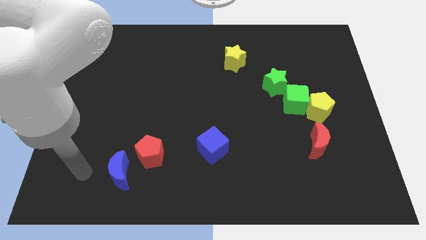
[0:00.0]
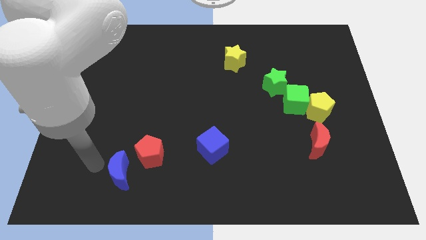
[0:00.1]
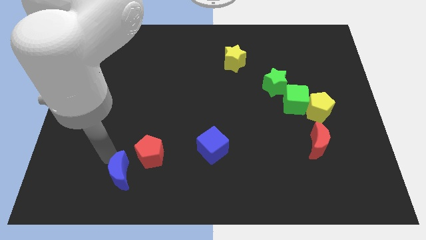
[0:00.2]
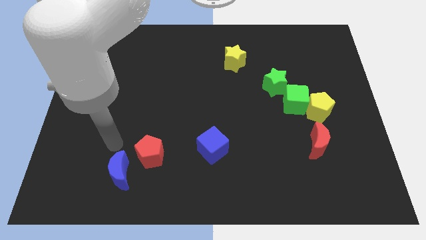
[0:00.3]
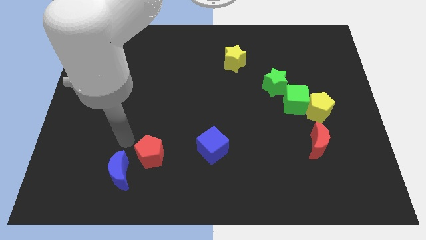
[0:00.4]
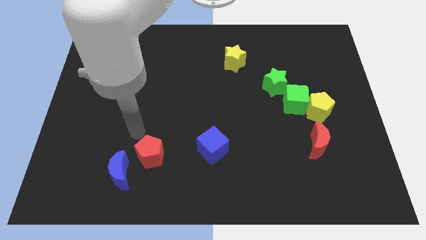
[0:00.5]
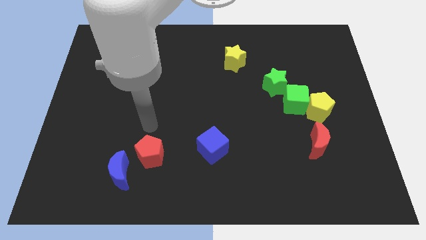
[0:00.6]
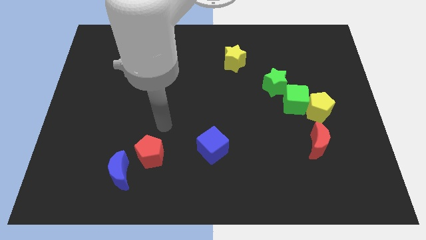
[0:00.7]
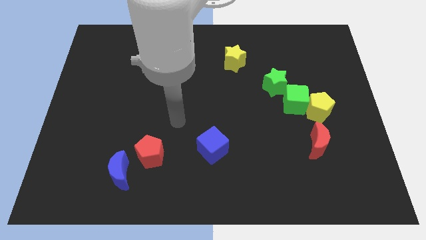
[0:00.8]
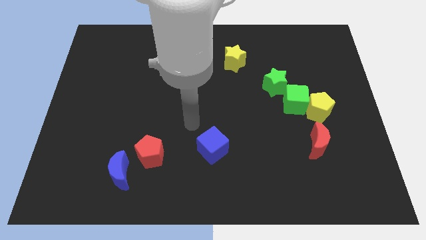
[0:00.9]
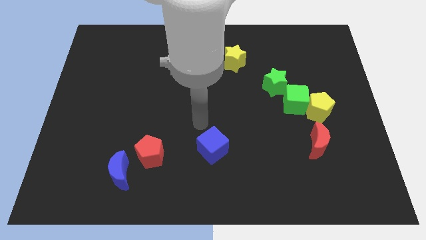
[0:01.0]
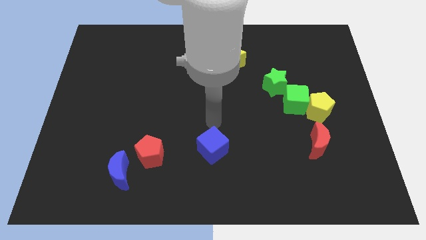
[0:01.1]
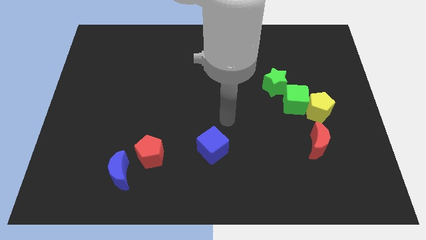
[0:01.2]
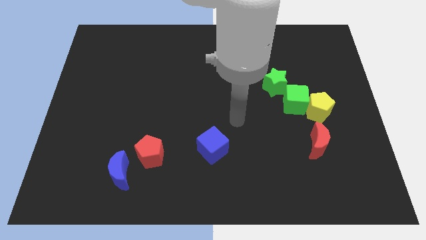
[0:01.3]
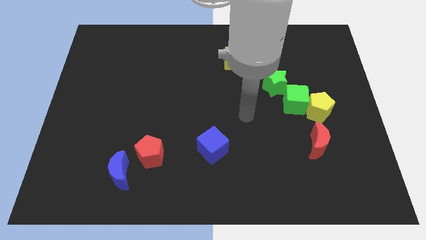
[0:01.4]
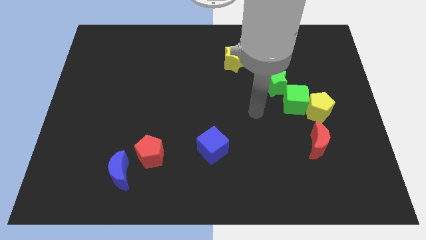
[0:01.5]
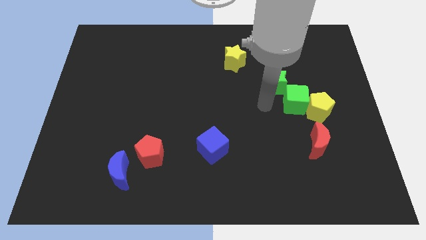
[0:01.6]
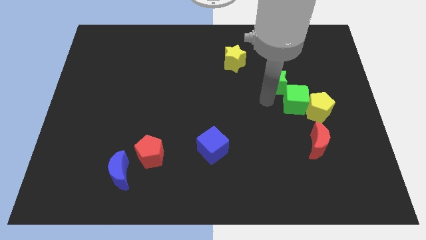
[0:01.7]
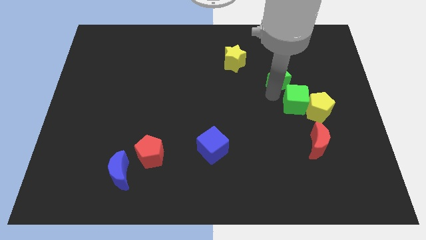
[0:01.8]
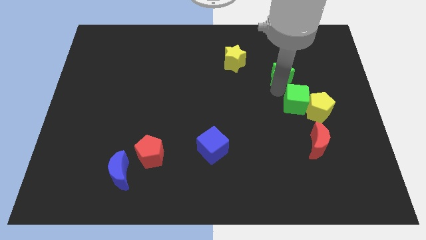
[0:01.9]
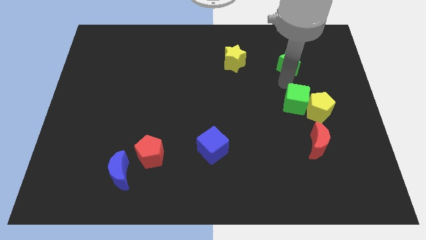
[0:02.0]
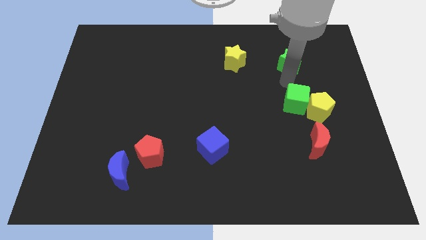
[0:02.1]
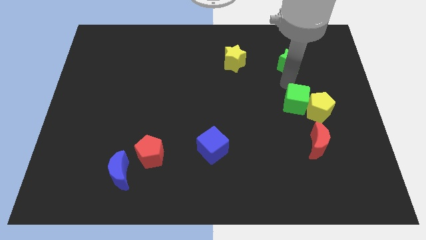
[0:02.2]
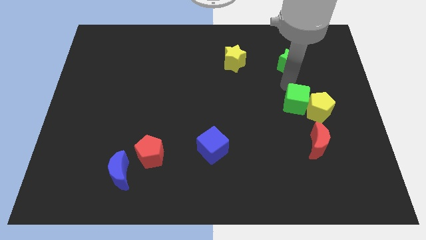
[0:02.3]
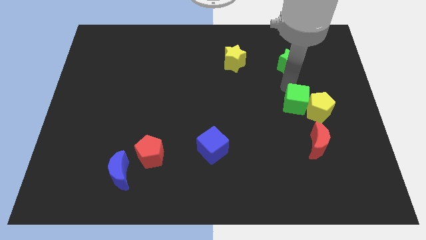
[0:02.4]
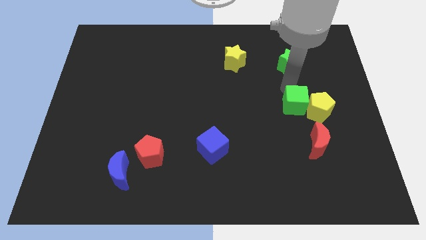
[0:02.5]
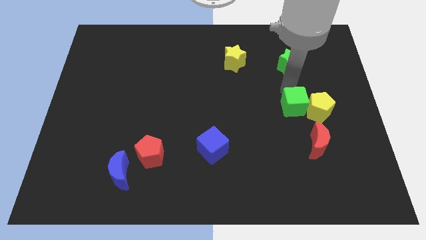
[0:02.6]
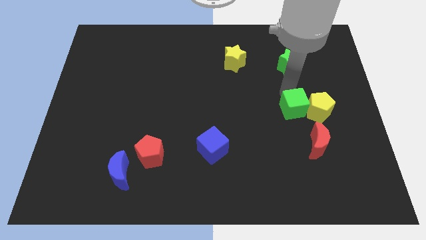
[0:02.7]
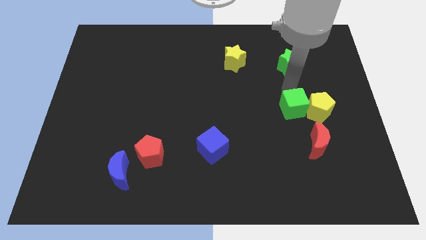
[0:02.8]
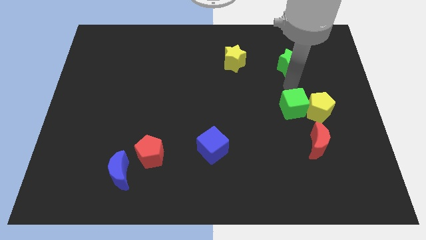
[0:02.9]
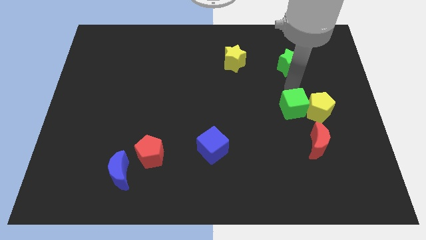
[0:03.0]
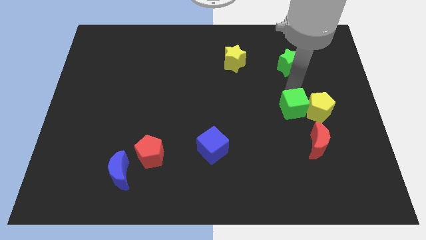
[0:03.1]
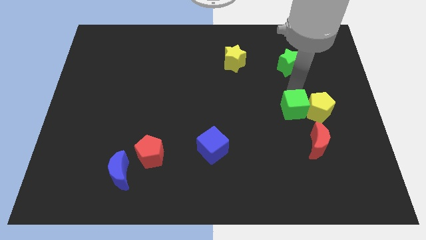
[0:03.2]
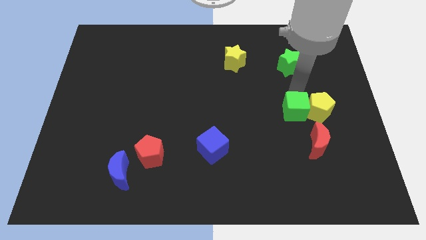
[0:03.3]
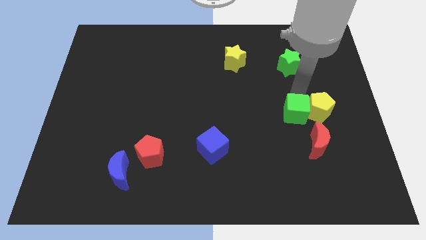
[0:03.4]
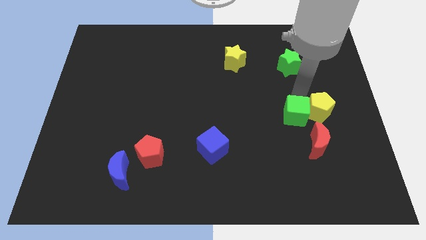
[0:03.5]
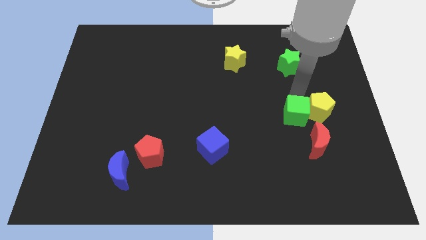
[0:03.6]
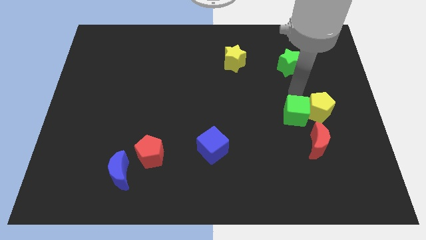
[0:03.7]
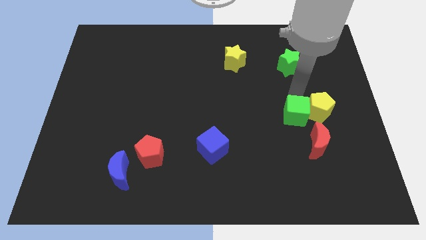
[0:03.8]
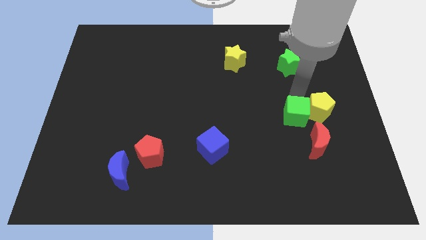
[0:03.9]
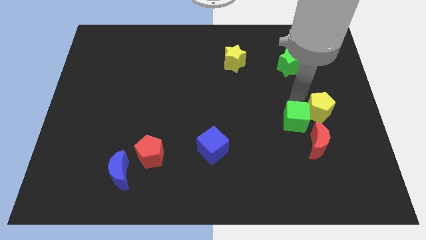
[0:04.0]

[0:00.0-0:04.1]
separate the green cube from the yellow pentagon and green star

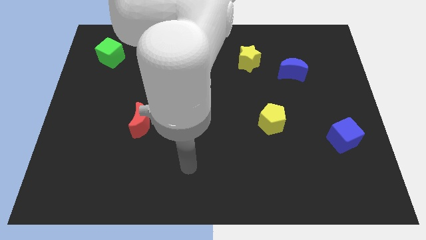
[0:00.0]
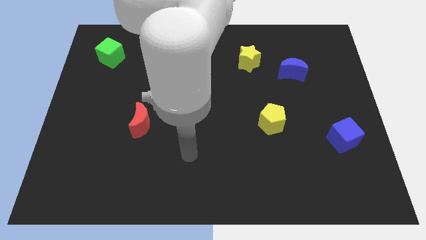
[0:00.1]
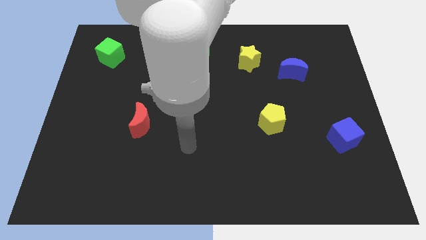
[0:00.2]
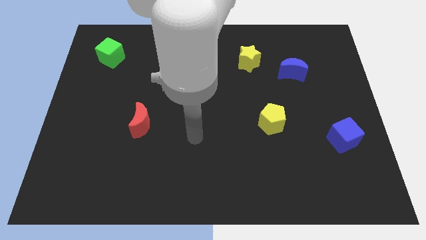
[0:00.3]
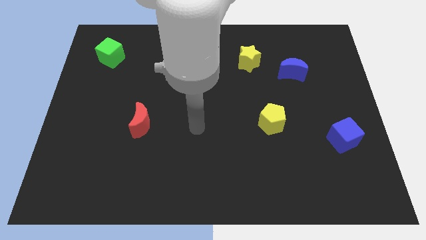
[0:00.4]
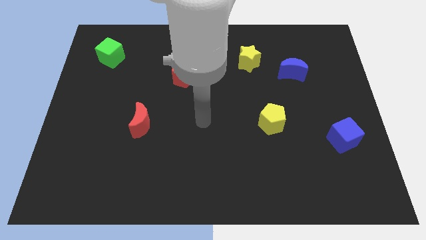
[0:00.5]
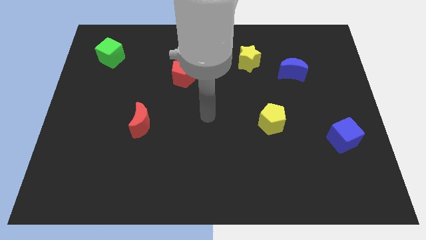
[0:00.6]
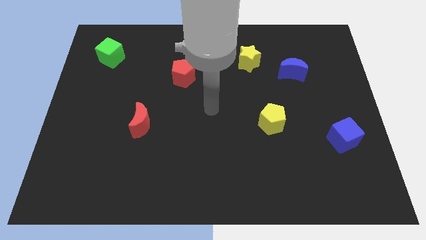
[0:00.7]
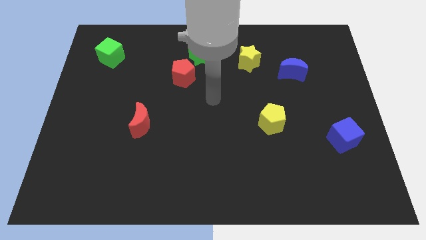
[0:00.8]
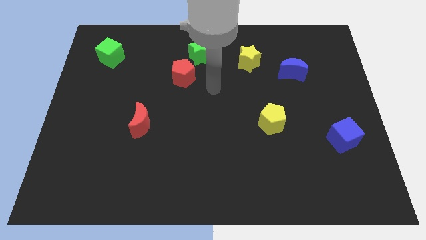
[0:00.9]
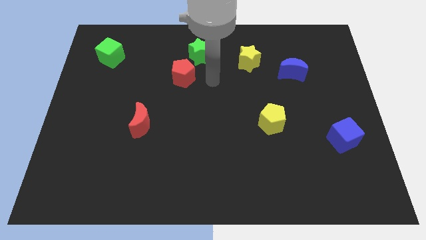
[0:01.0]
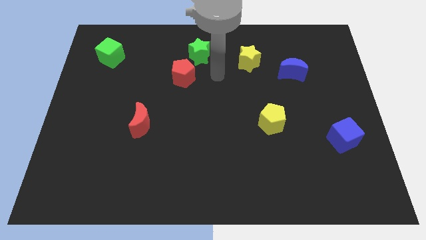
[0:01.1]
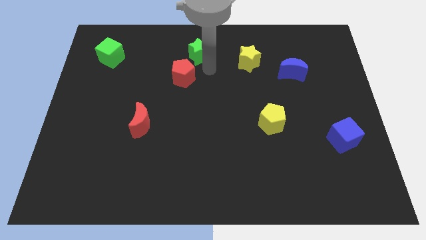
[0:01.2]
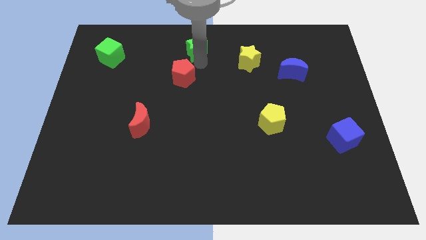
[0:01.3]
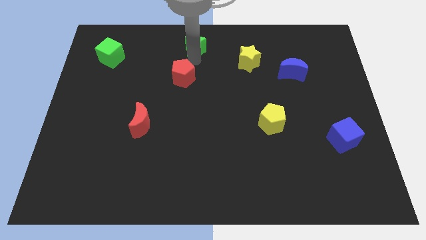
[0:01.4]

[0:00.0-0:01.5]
pull the red pentagon apart from the green star

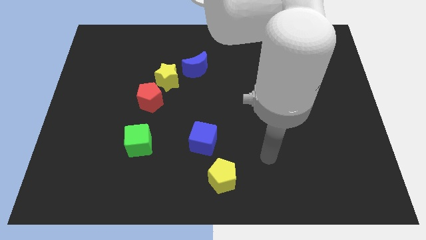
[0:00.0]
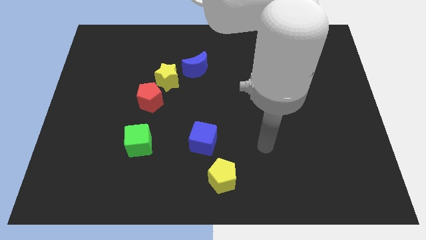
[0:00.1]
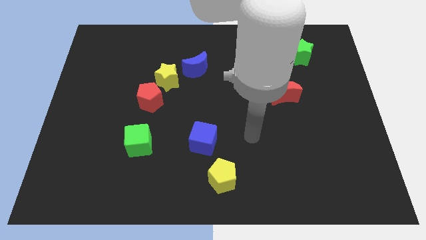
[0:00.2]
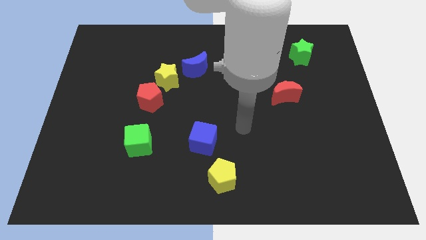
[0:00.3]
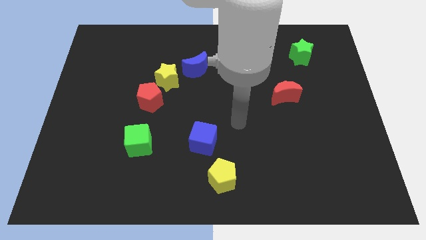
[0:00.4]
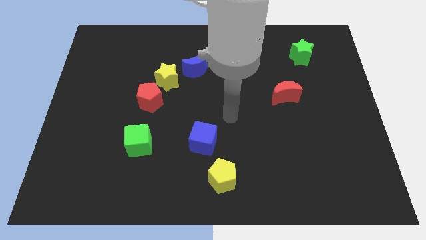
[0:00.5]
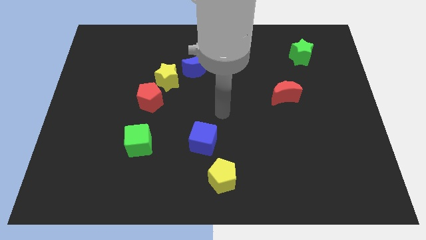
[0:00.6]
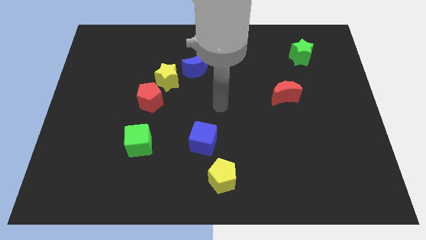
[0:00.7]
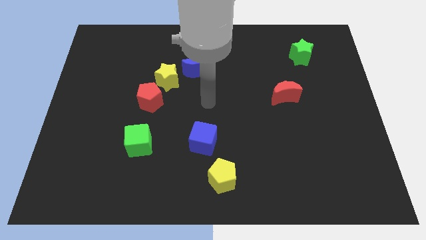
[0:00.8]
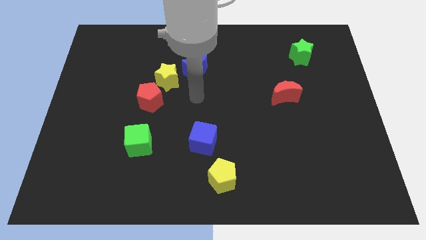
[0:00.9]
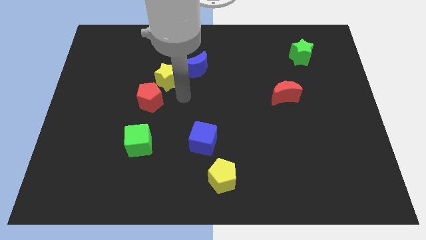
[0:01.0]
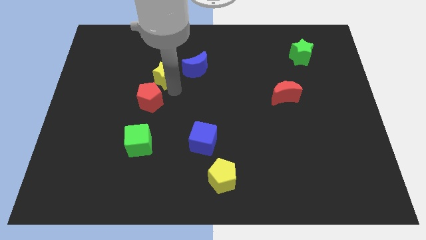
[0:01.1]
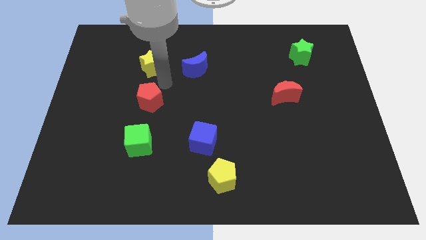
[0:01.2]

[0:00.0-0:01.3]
move the red pentagon away from the yellow star

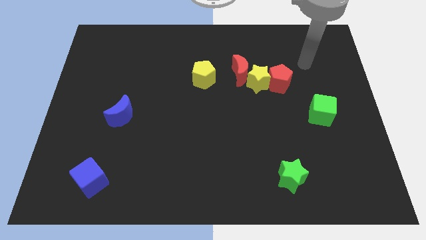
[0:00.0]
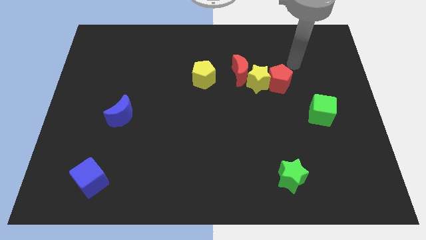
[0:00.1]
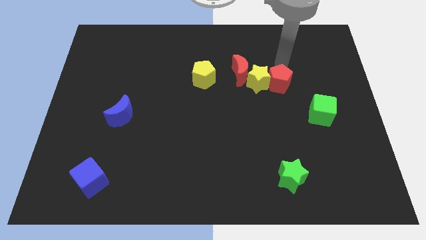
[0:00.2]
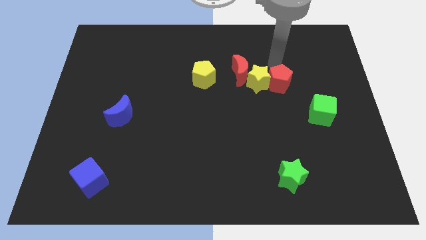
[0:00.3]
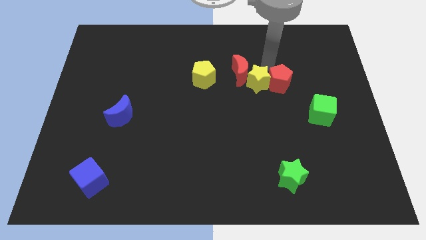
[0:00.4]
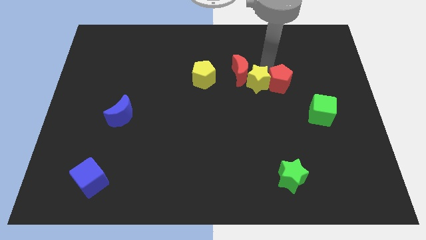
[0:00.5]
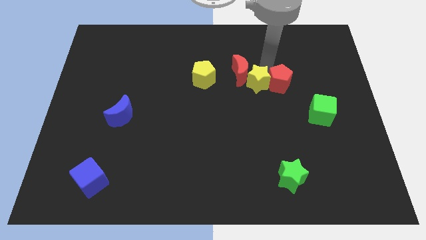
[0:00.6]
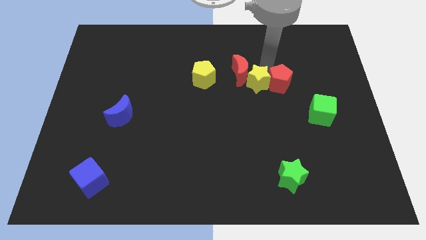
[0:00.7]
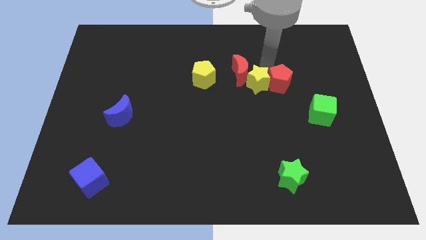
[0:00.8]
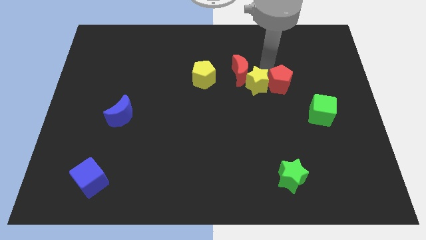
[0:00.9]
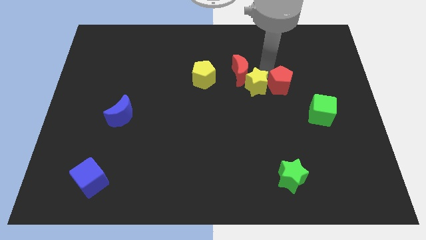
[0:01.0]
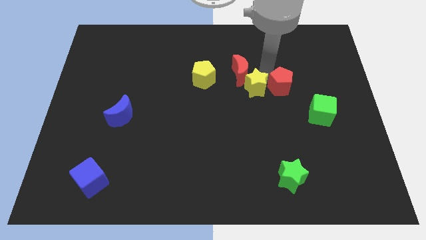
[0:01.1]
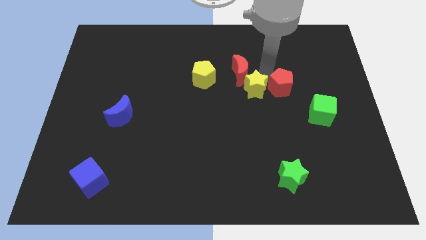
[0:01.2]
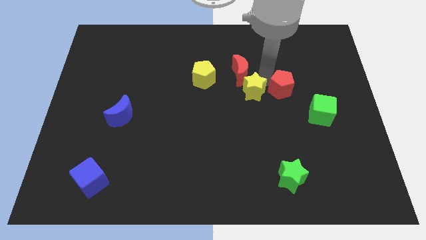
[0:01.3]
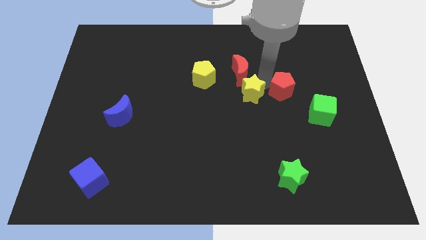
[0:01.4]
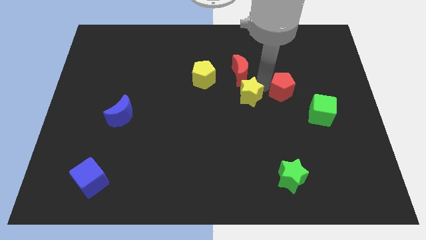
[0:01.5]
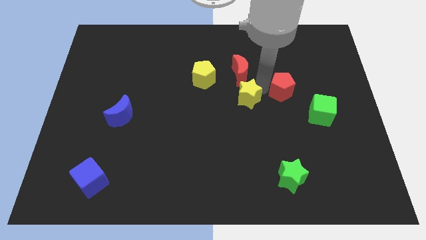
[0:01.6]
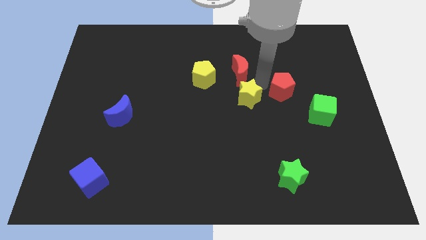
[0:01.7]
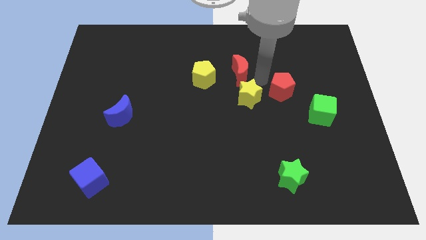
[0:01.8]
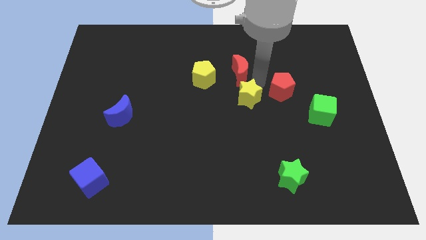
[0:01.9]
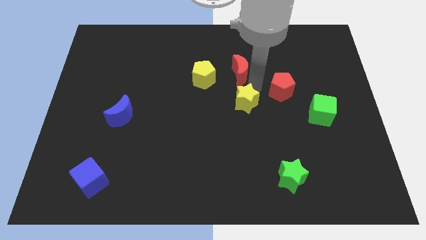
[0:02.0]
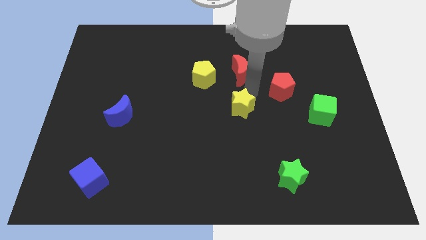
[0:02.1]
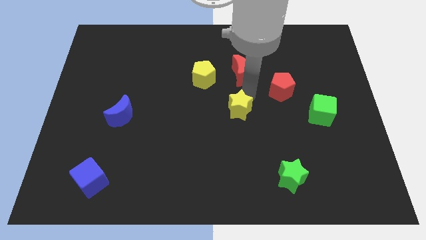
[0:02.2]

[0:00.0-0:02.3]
move the yellow star away from the red moon and red pentagon

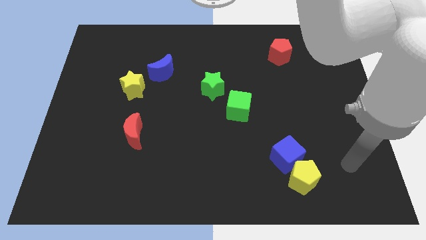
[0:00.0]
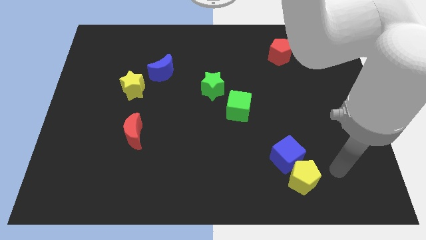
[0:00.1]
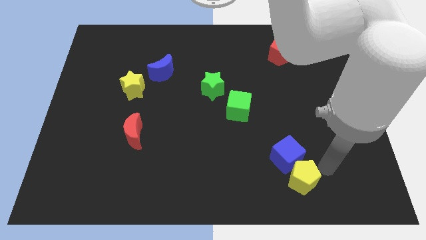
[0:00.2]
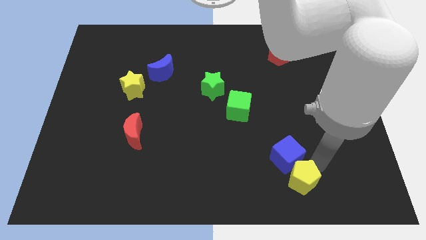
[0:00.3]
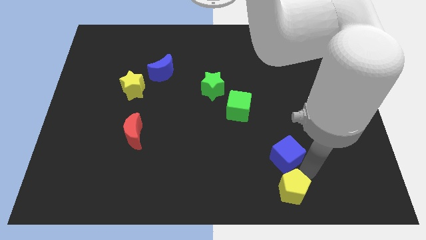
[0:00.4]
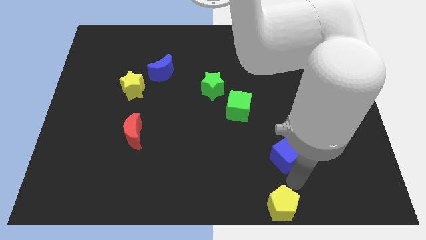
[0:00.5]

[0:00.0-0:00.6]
pull the blue cube apart from the yellow pentagon
